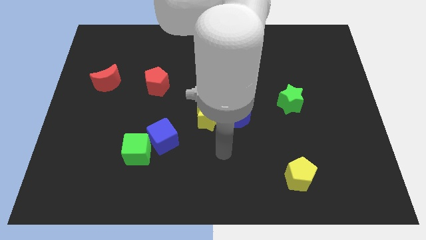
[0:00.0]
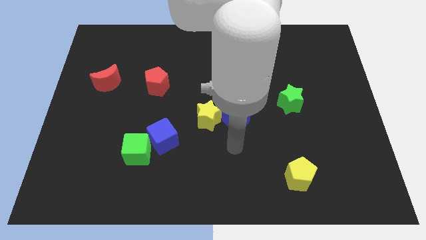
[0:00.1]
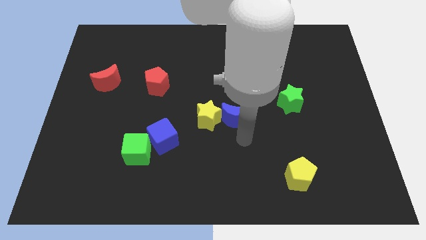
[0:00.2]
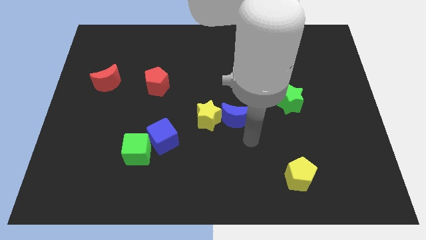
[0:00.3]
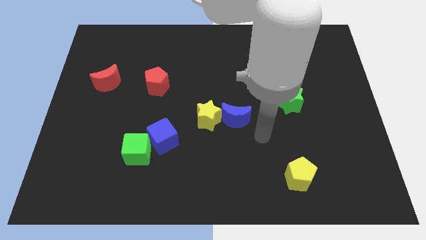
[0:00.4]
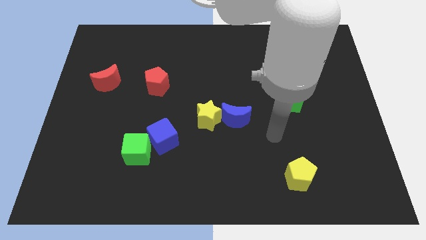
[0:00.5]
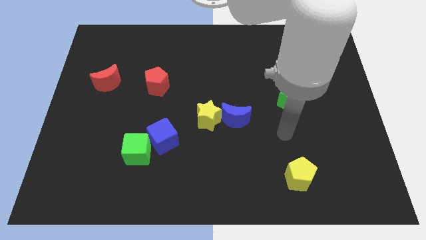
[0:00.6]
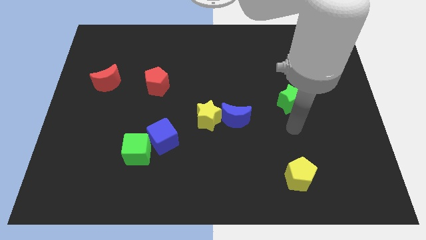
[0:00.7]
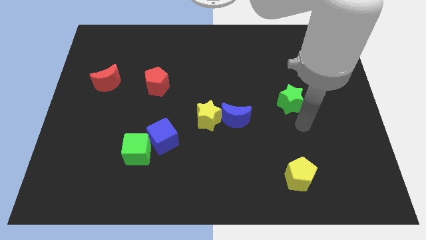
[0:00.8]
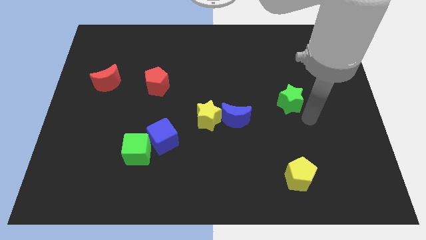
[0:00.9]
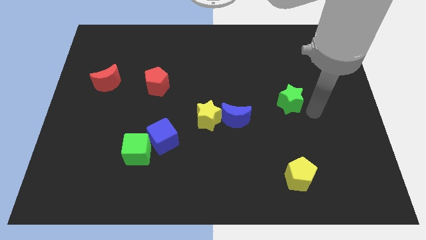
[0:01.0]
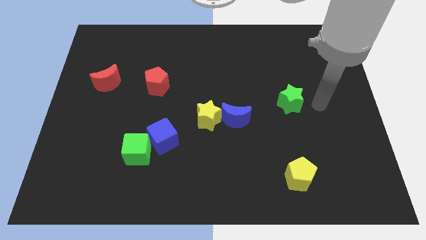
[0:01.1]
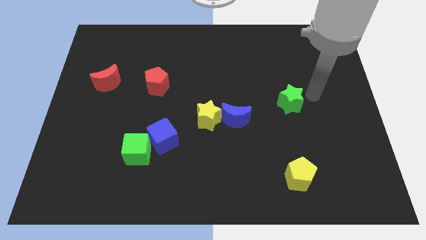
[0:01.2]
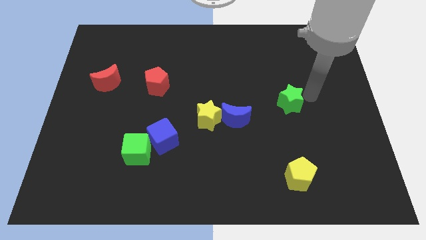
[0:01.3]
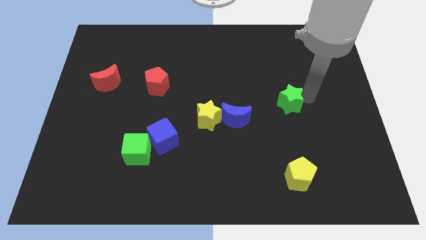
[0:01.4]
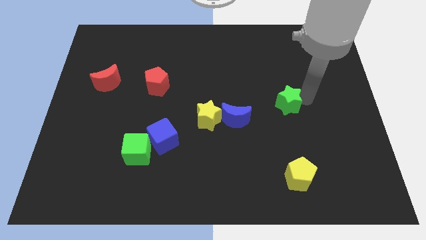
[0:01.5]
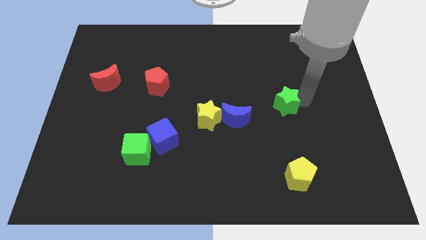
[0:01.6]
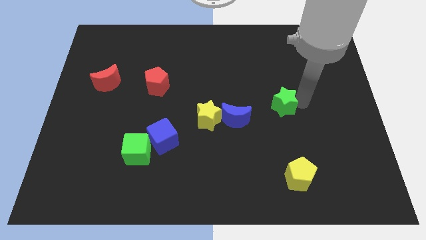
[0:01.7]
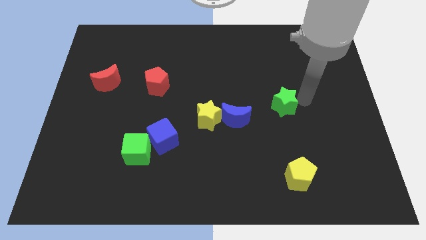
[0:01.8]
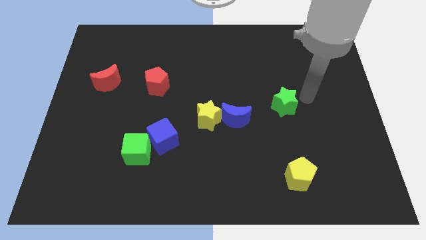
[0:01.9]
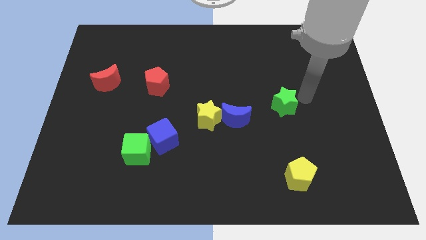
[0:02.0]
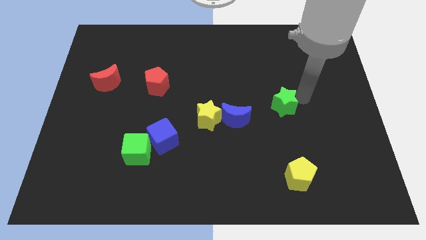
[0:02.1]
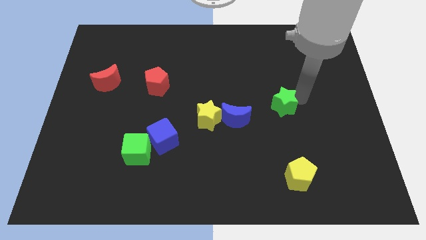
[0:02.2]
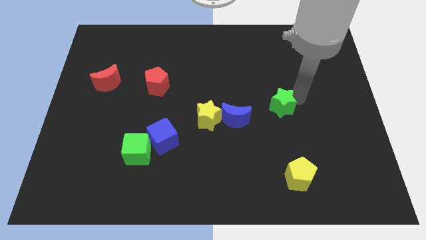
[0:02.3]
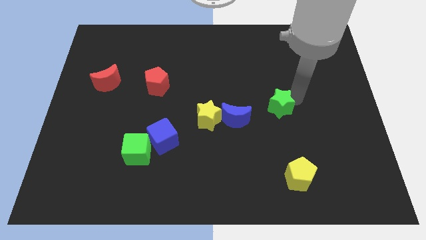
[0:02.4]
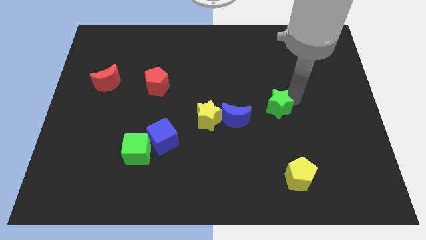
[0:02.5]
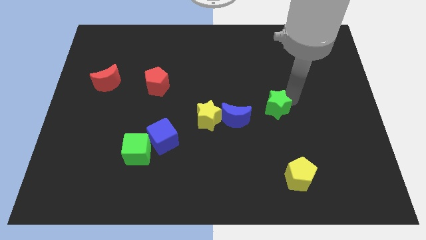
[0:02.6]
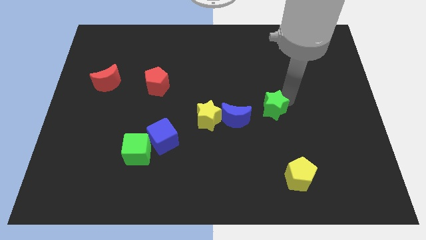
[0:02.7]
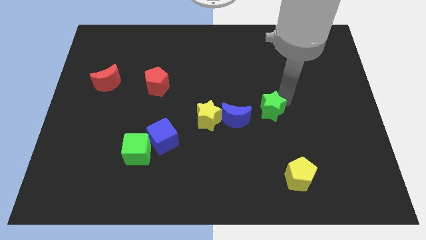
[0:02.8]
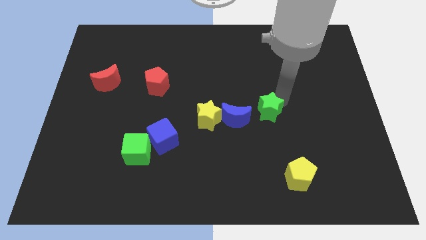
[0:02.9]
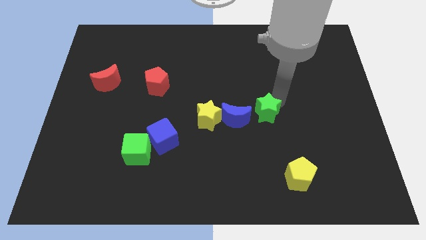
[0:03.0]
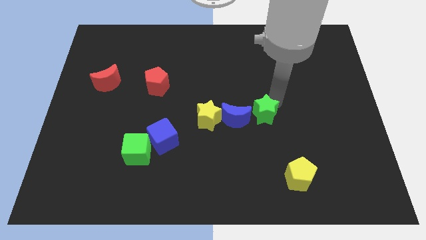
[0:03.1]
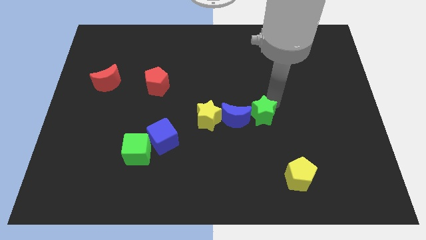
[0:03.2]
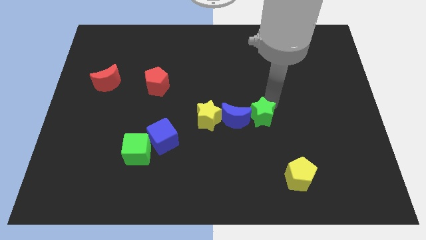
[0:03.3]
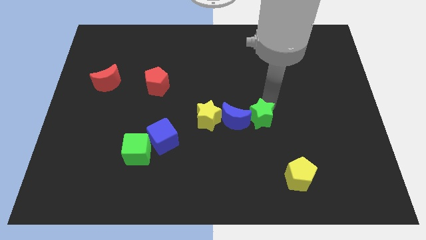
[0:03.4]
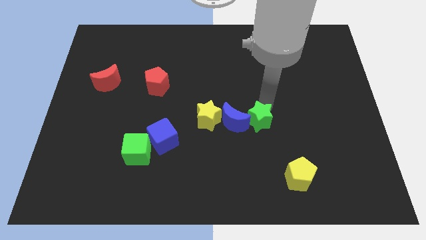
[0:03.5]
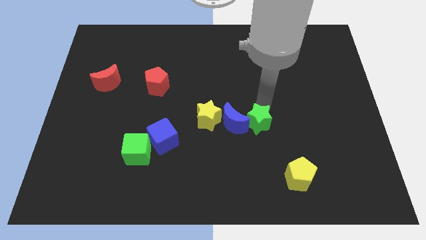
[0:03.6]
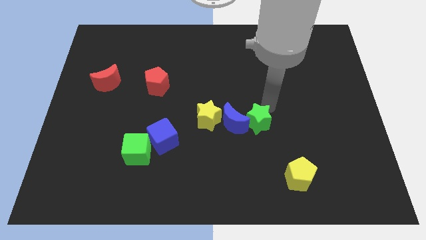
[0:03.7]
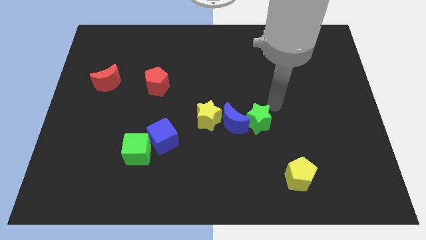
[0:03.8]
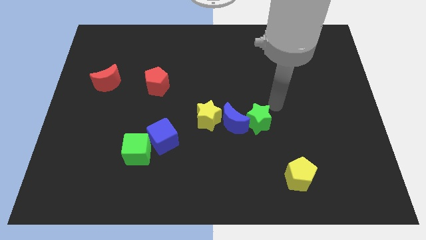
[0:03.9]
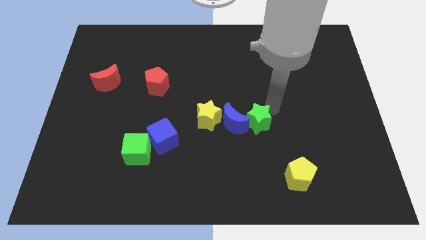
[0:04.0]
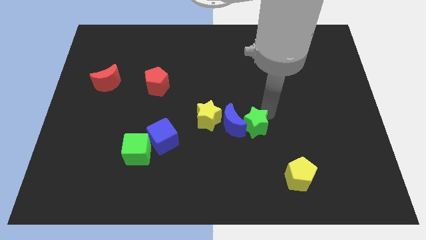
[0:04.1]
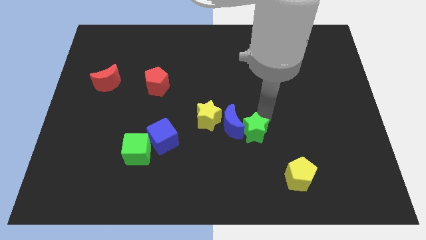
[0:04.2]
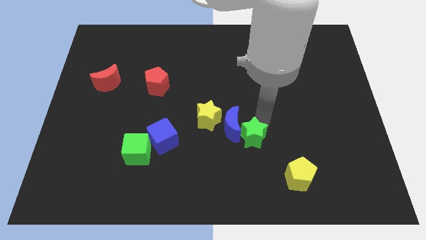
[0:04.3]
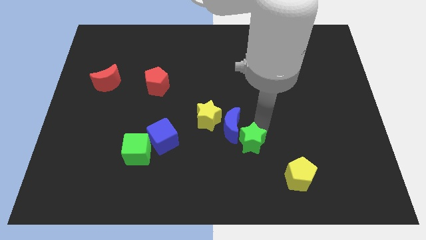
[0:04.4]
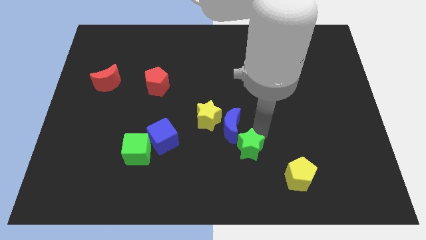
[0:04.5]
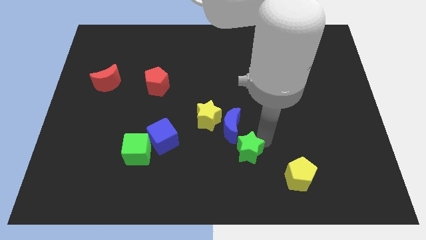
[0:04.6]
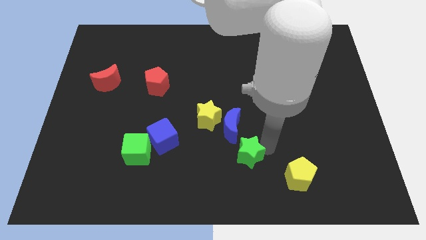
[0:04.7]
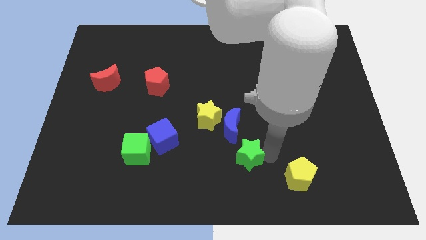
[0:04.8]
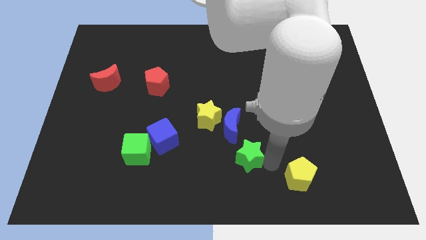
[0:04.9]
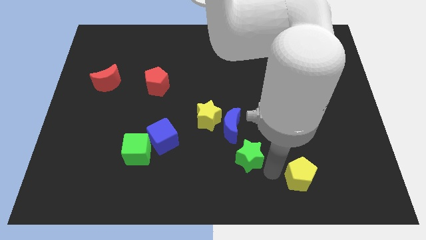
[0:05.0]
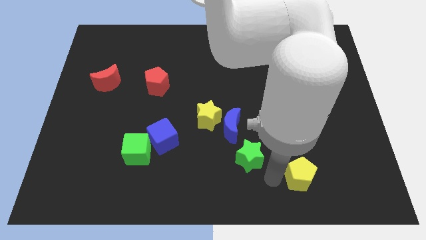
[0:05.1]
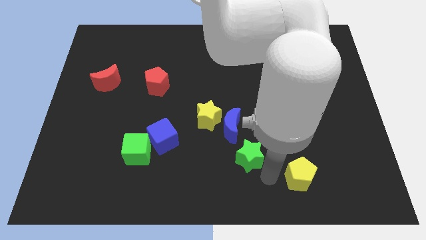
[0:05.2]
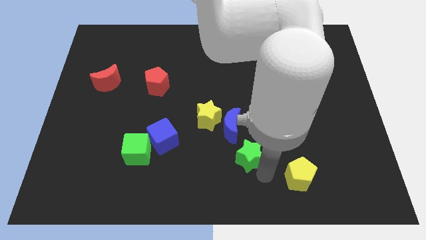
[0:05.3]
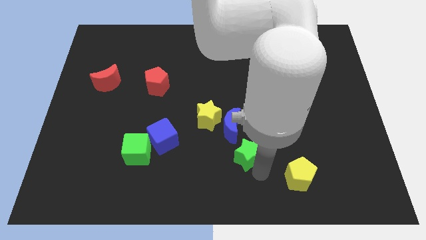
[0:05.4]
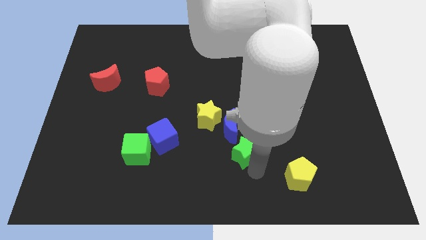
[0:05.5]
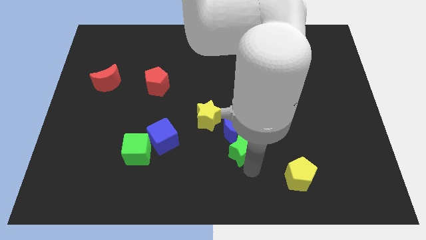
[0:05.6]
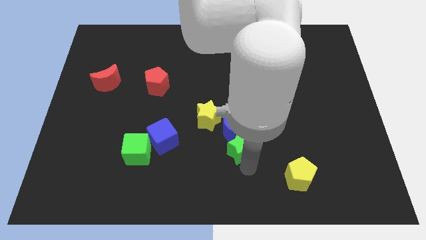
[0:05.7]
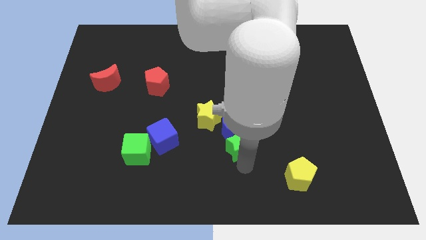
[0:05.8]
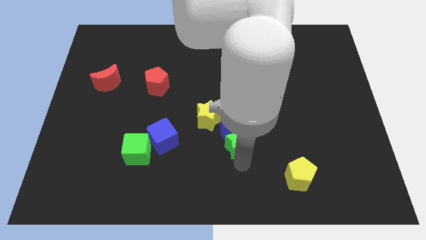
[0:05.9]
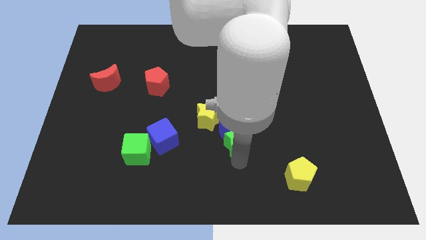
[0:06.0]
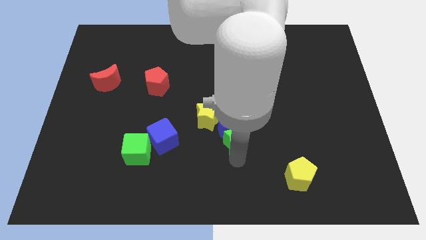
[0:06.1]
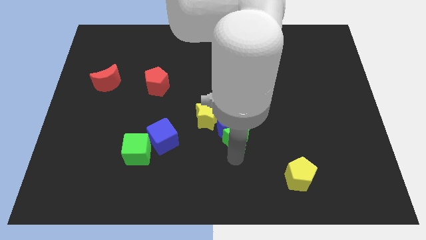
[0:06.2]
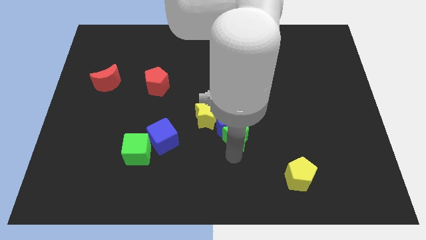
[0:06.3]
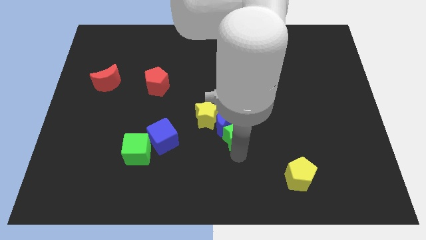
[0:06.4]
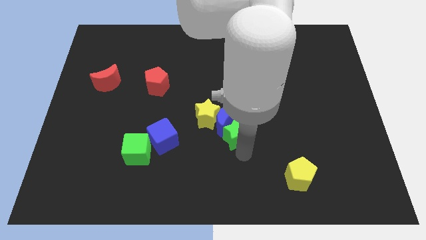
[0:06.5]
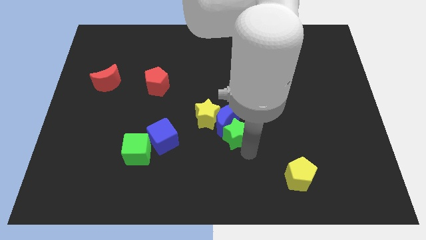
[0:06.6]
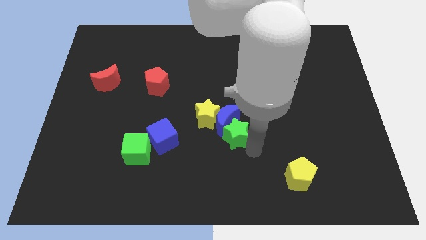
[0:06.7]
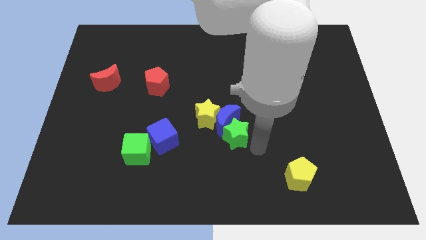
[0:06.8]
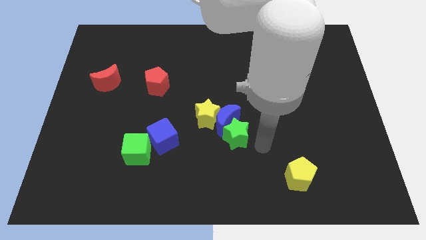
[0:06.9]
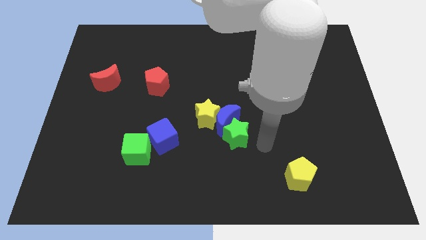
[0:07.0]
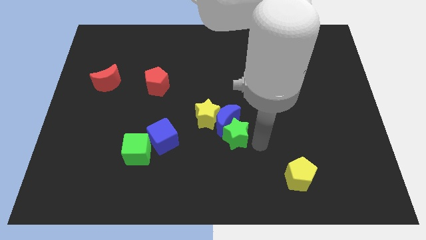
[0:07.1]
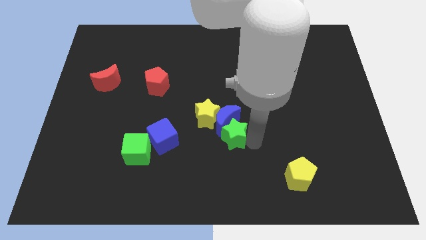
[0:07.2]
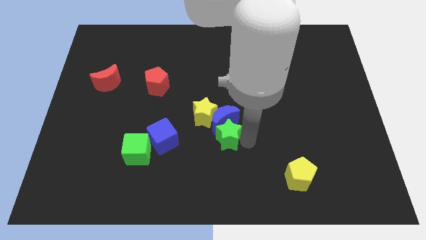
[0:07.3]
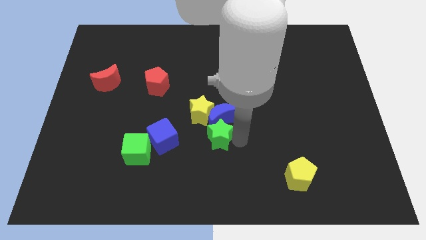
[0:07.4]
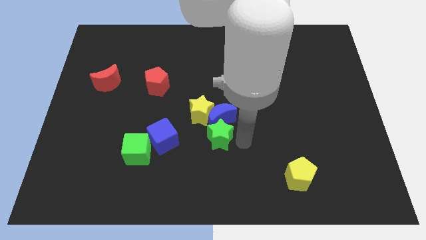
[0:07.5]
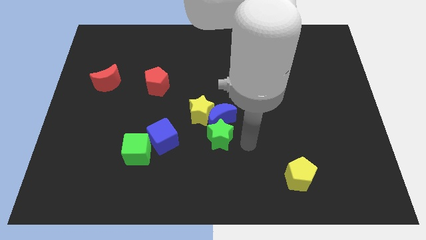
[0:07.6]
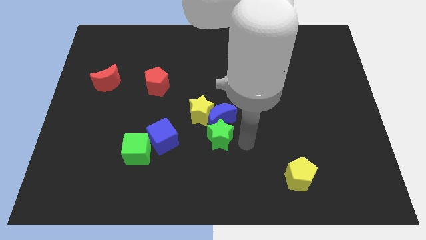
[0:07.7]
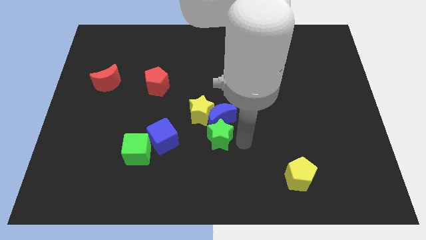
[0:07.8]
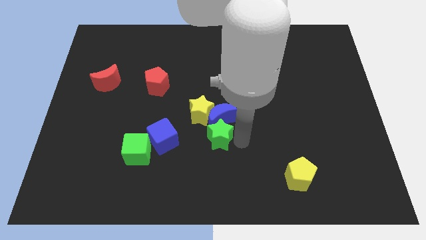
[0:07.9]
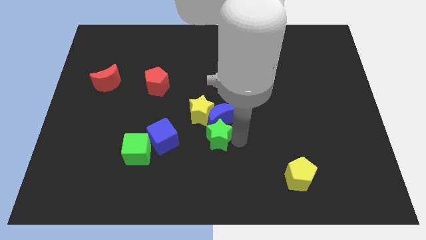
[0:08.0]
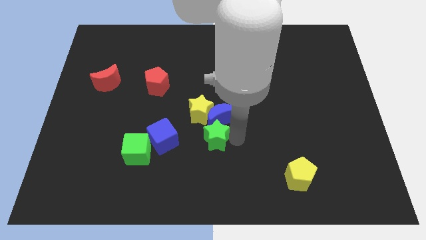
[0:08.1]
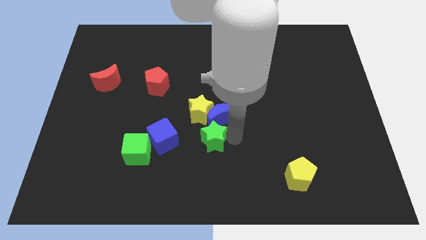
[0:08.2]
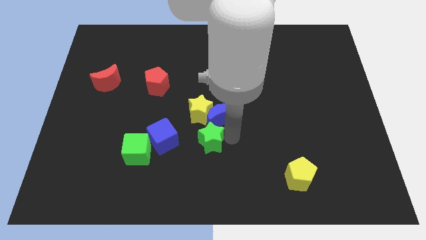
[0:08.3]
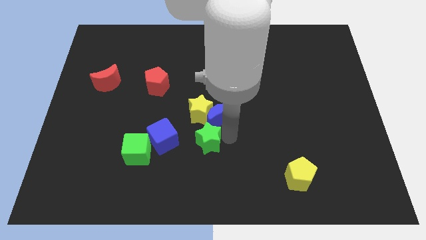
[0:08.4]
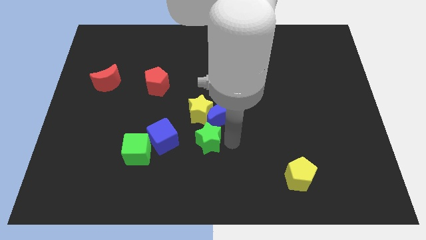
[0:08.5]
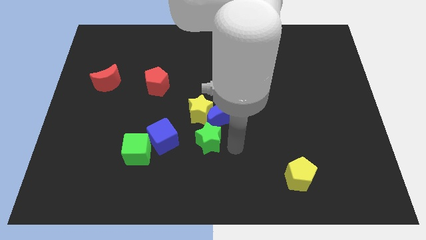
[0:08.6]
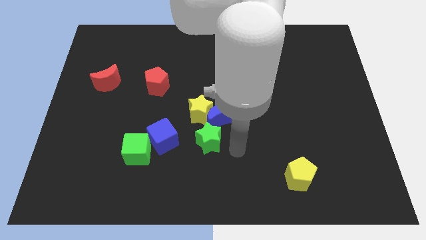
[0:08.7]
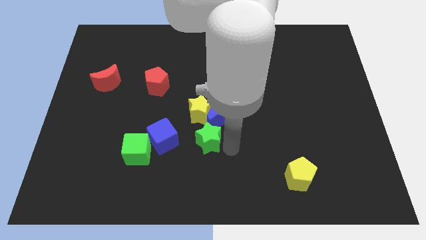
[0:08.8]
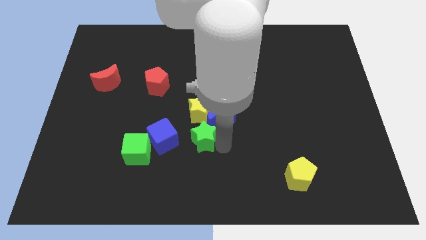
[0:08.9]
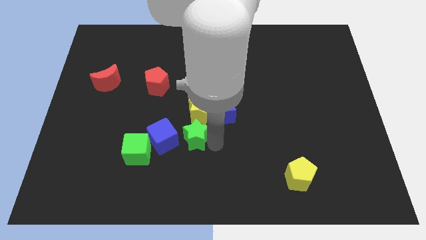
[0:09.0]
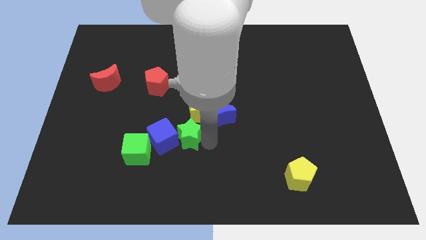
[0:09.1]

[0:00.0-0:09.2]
move the green star towards the blue cube
